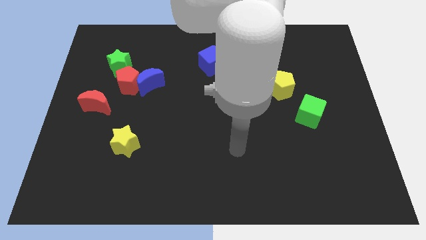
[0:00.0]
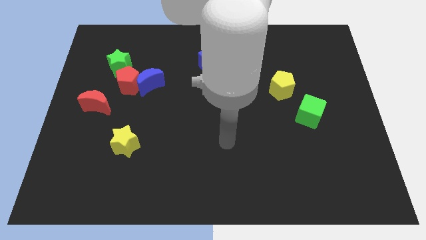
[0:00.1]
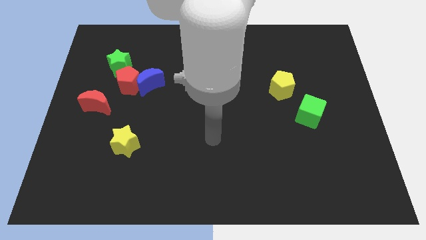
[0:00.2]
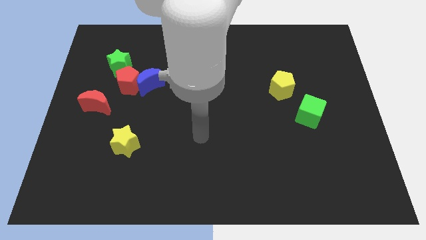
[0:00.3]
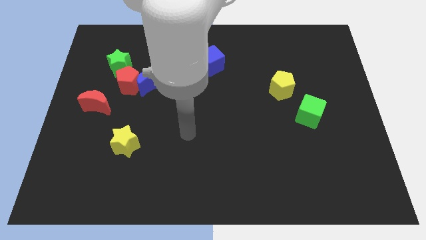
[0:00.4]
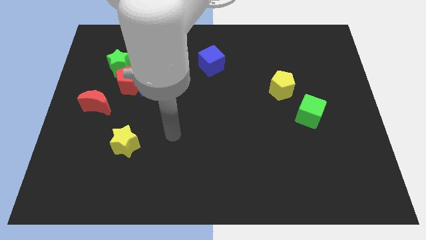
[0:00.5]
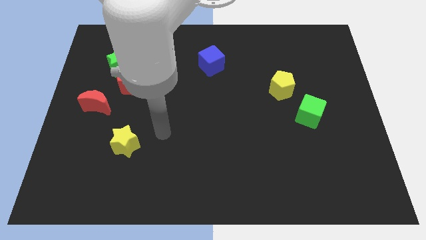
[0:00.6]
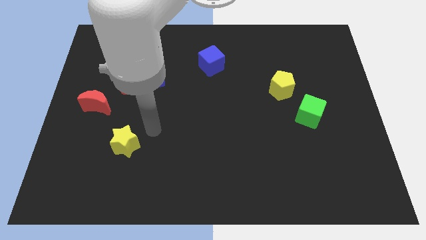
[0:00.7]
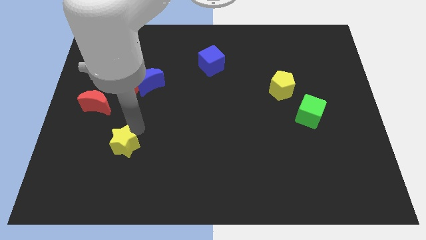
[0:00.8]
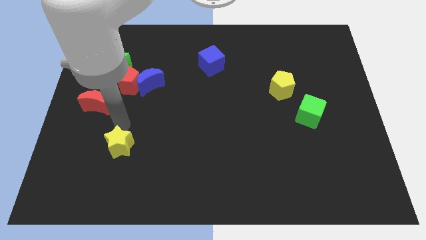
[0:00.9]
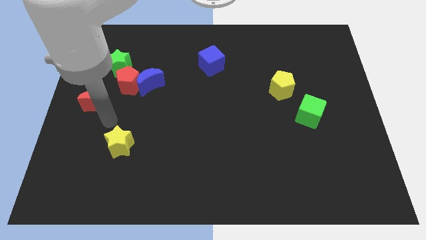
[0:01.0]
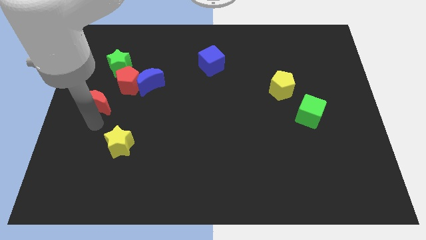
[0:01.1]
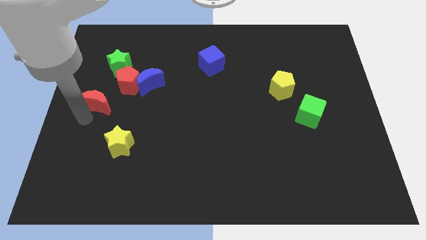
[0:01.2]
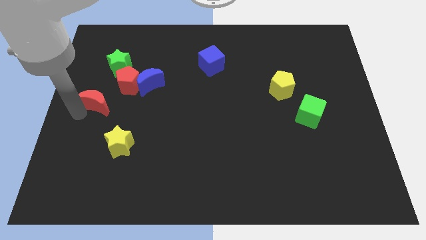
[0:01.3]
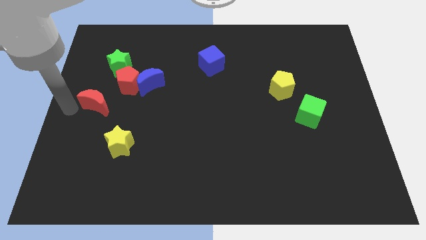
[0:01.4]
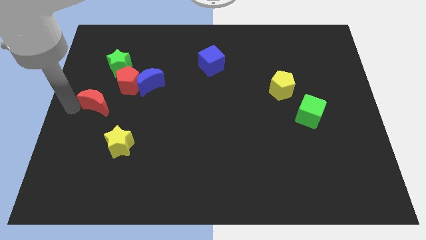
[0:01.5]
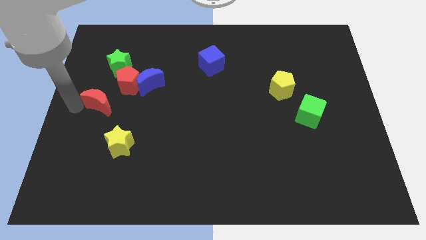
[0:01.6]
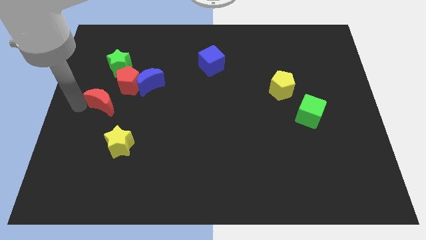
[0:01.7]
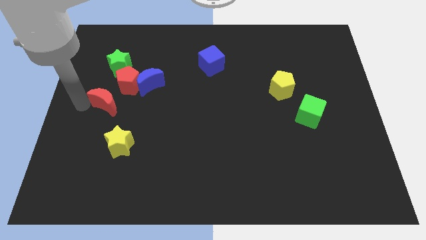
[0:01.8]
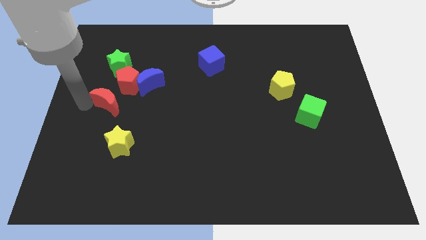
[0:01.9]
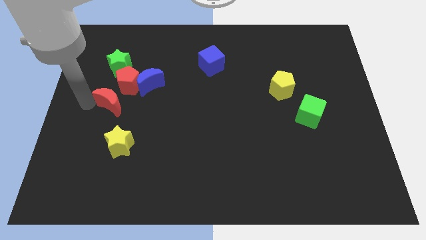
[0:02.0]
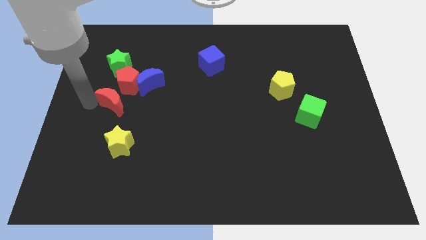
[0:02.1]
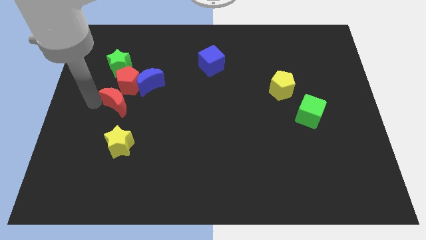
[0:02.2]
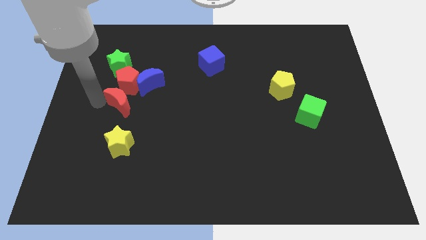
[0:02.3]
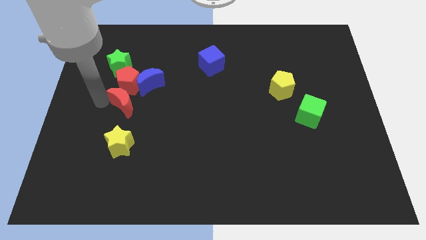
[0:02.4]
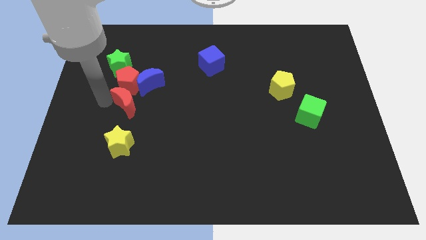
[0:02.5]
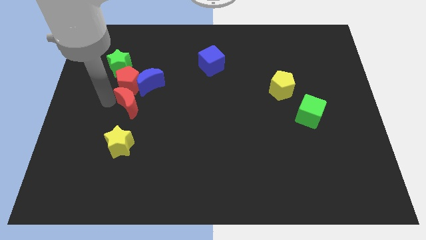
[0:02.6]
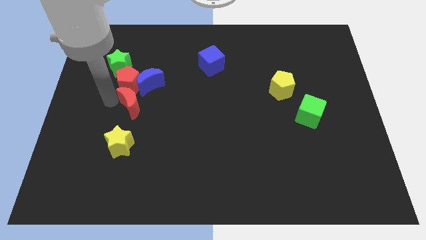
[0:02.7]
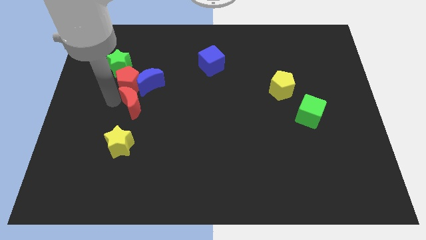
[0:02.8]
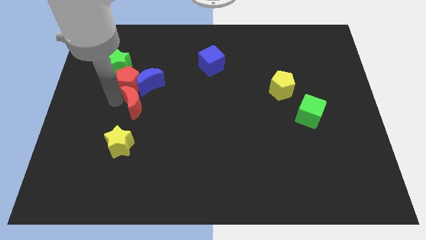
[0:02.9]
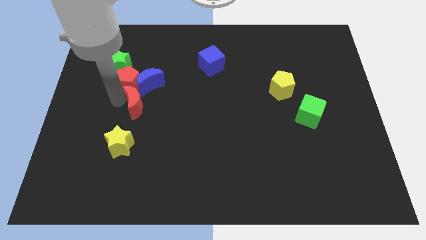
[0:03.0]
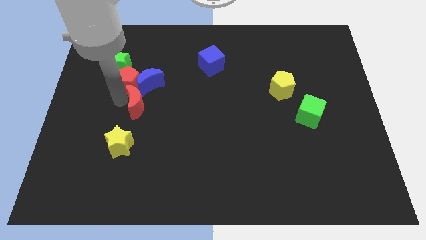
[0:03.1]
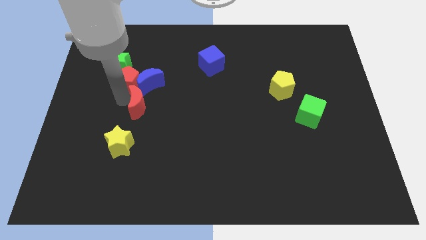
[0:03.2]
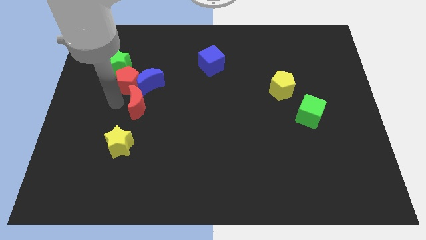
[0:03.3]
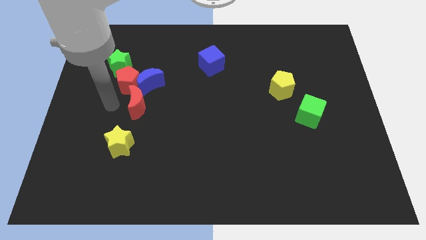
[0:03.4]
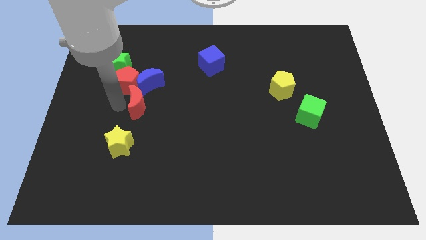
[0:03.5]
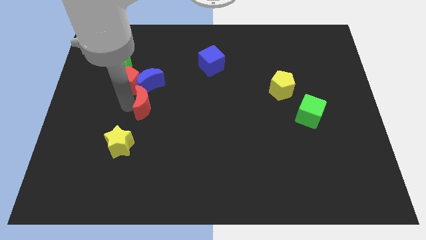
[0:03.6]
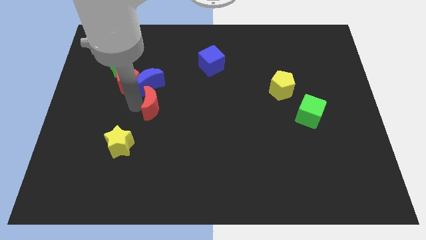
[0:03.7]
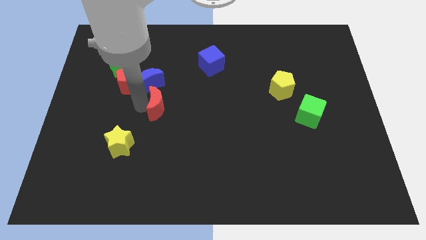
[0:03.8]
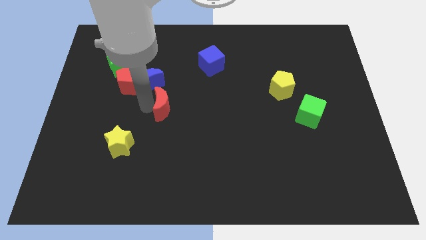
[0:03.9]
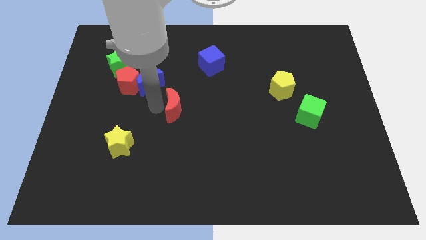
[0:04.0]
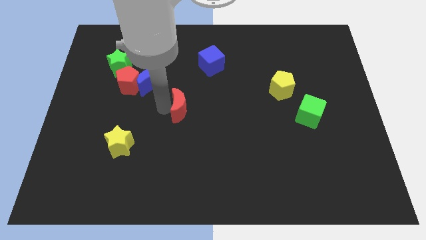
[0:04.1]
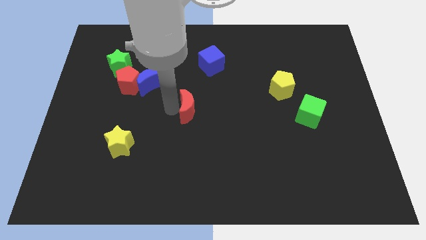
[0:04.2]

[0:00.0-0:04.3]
move the red moon right

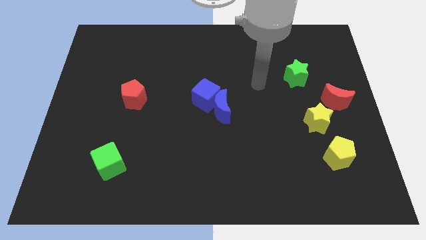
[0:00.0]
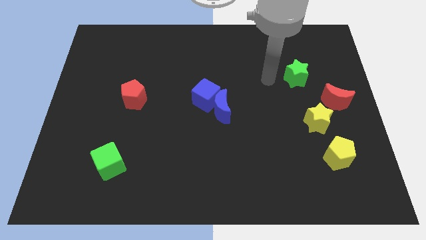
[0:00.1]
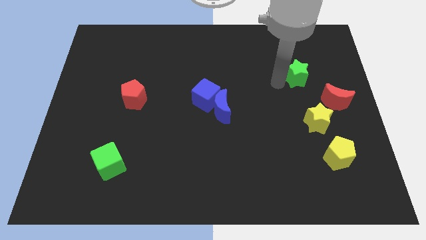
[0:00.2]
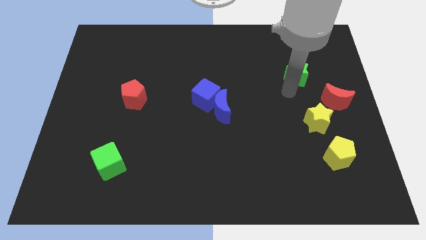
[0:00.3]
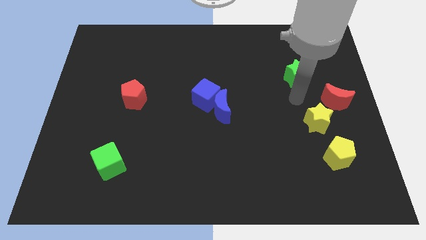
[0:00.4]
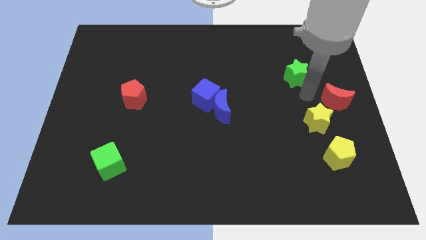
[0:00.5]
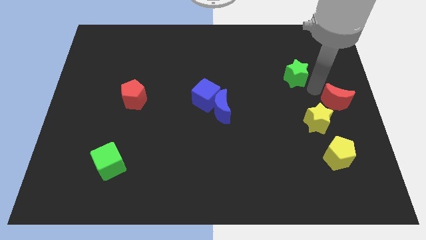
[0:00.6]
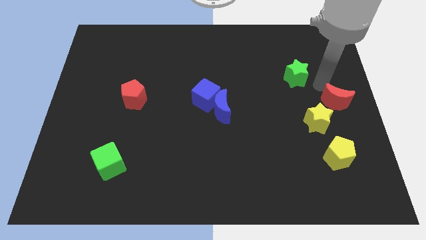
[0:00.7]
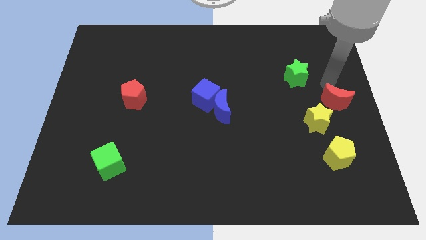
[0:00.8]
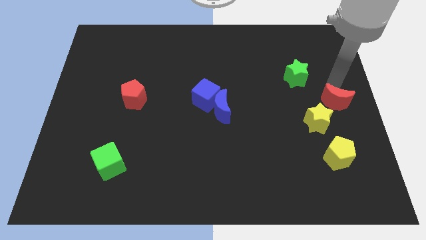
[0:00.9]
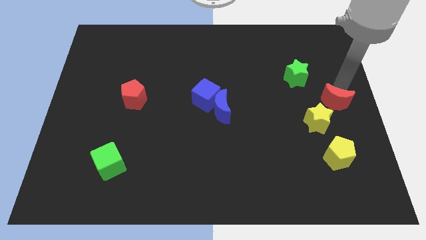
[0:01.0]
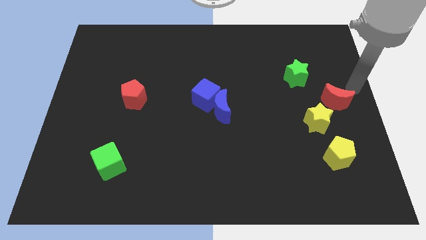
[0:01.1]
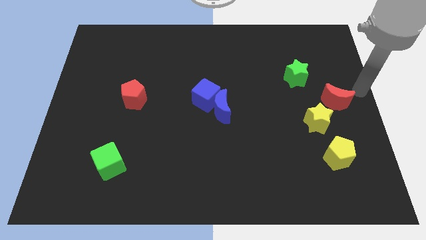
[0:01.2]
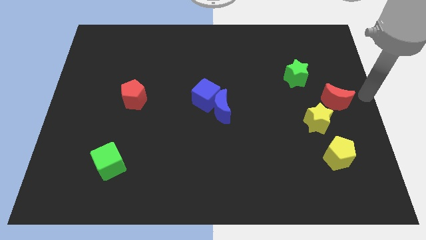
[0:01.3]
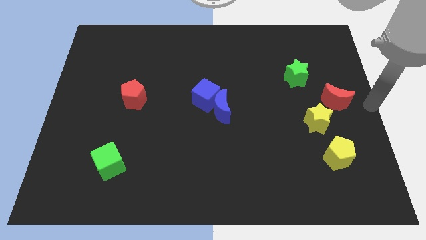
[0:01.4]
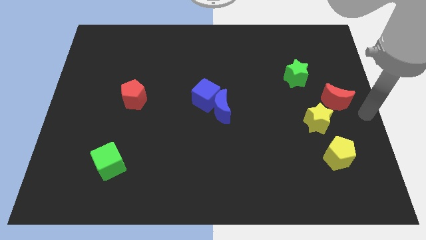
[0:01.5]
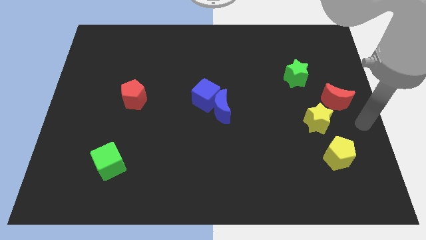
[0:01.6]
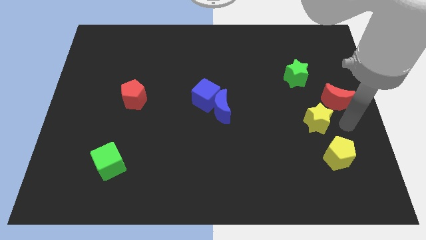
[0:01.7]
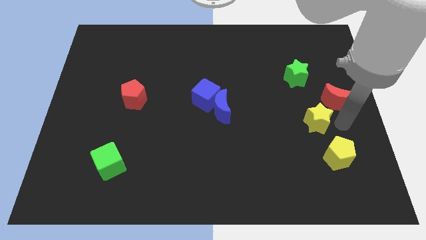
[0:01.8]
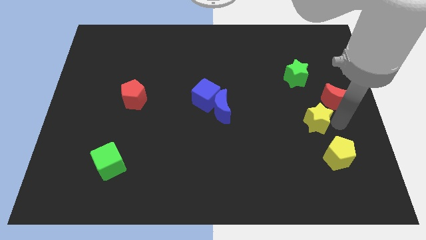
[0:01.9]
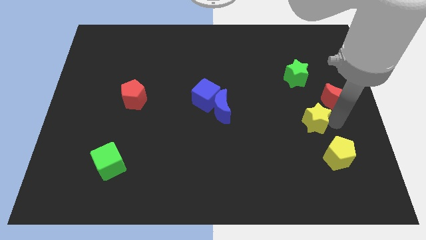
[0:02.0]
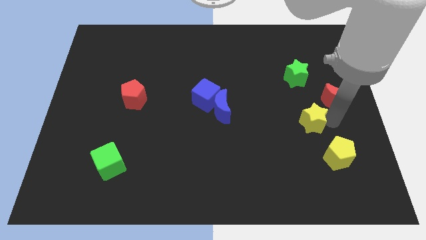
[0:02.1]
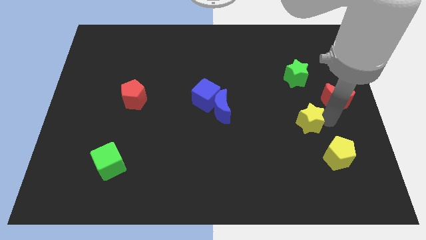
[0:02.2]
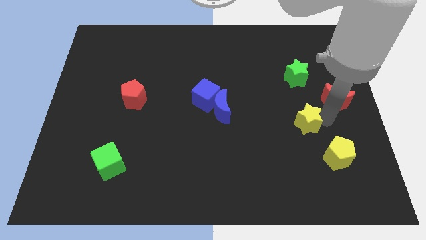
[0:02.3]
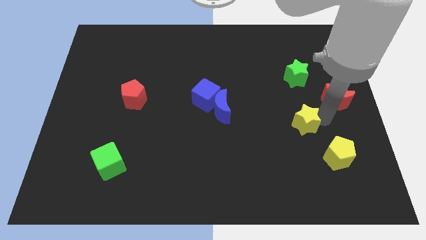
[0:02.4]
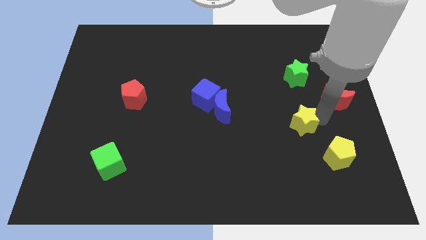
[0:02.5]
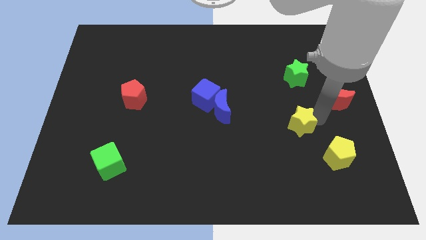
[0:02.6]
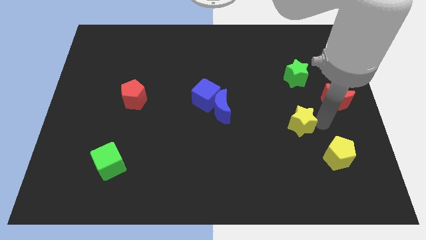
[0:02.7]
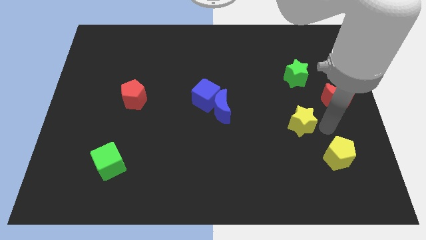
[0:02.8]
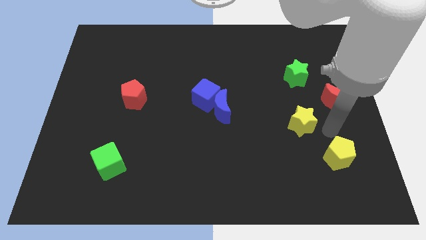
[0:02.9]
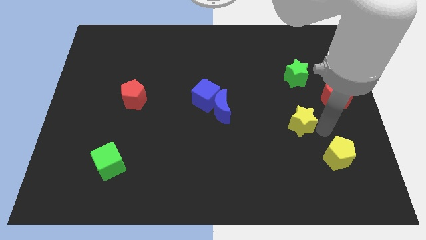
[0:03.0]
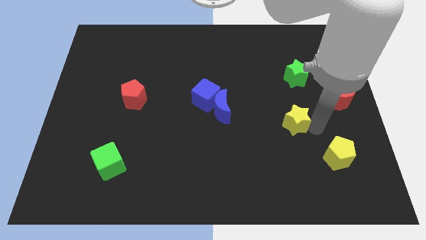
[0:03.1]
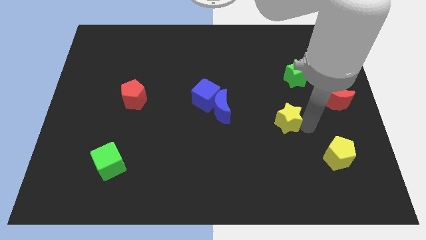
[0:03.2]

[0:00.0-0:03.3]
slightly slide the yellow star to the left

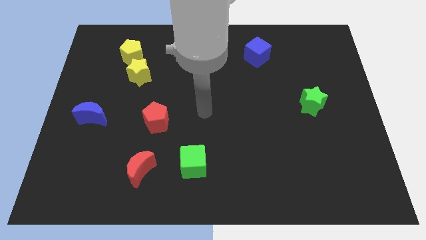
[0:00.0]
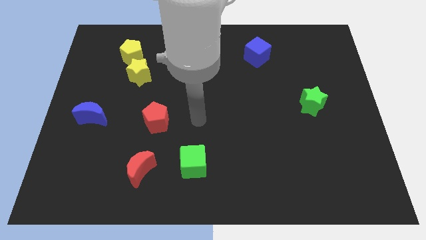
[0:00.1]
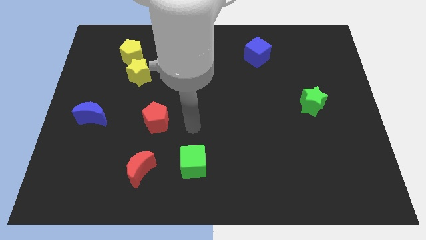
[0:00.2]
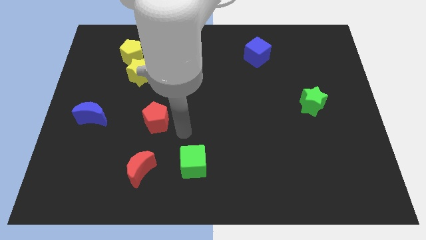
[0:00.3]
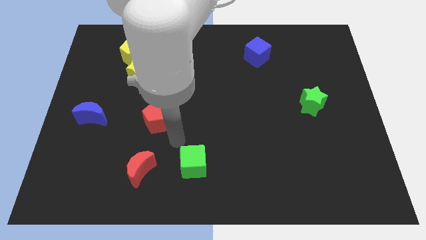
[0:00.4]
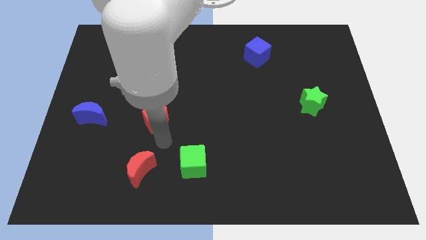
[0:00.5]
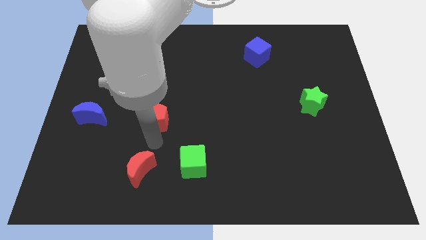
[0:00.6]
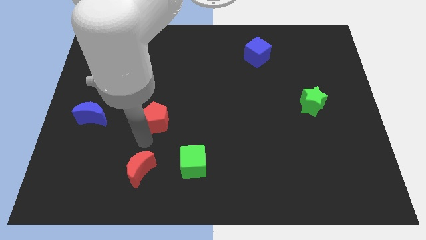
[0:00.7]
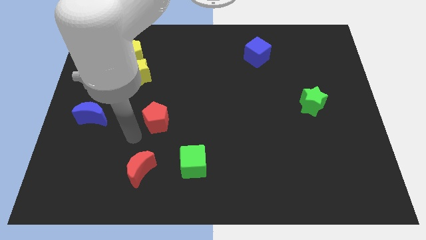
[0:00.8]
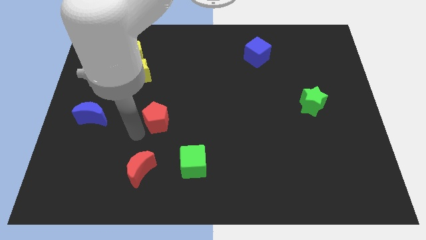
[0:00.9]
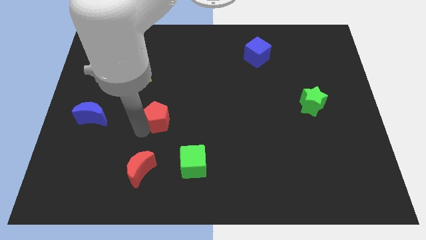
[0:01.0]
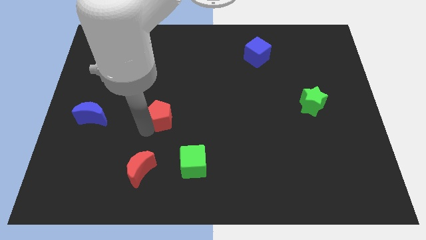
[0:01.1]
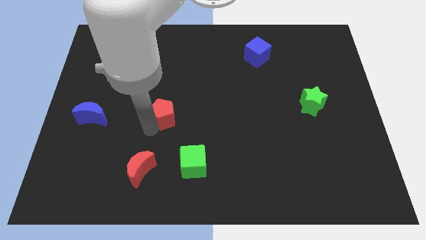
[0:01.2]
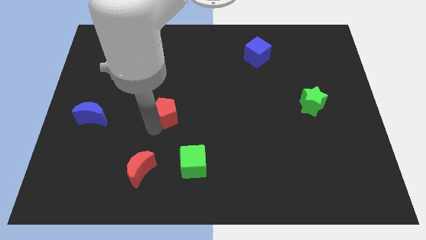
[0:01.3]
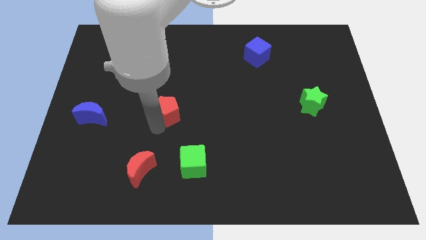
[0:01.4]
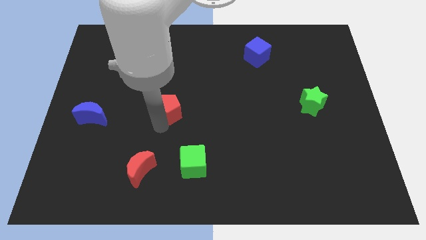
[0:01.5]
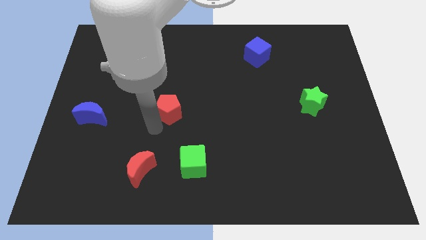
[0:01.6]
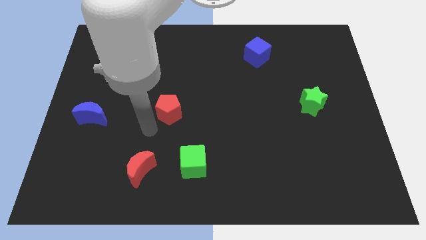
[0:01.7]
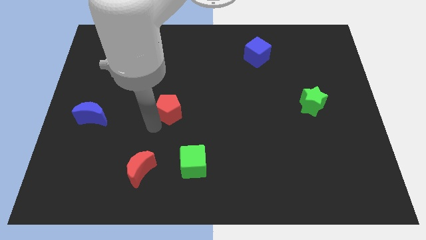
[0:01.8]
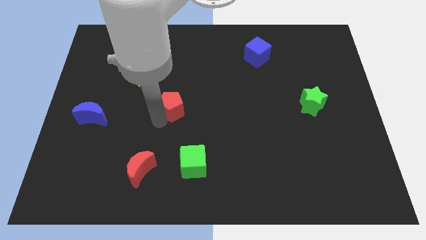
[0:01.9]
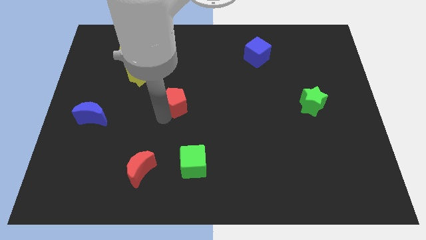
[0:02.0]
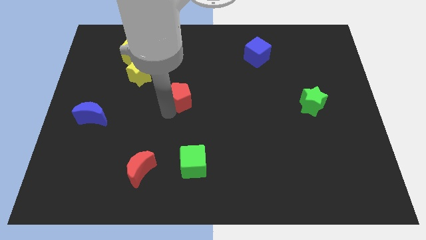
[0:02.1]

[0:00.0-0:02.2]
slide the red pentagon a little bit upwards and to the right diagonally
